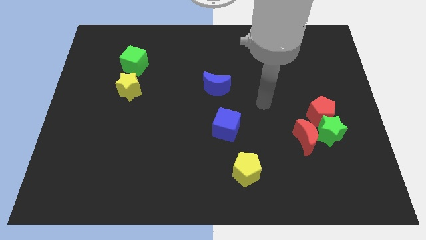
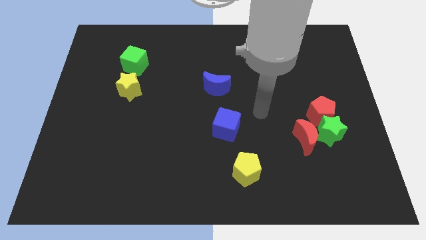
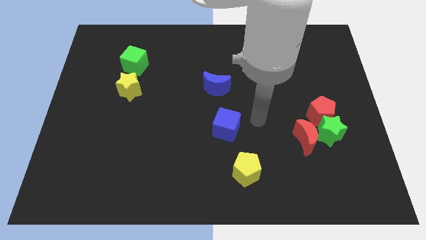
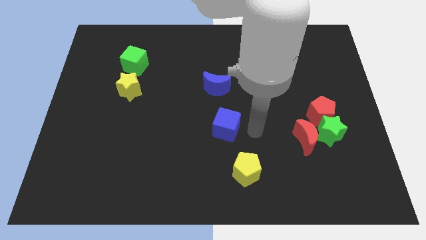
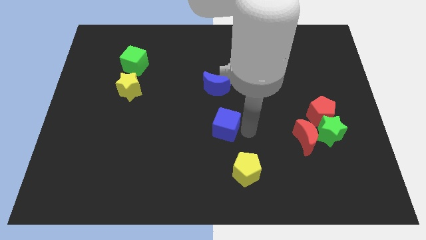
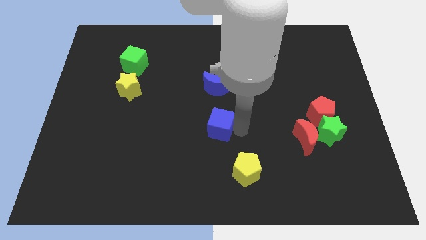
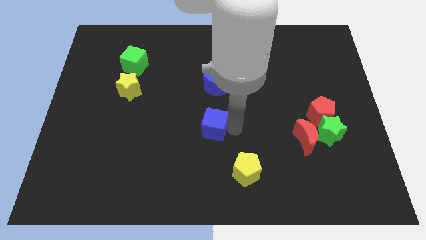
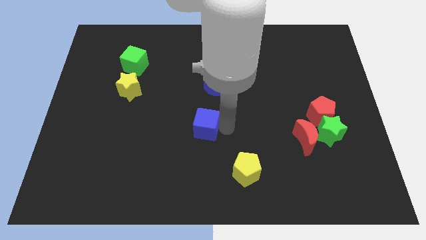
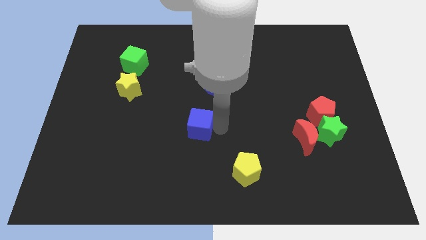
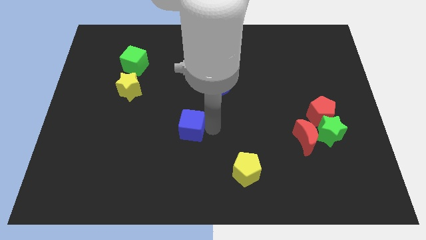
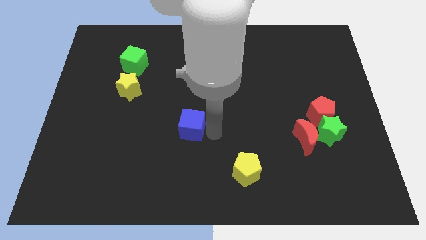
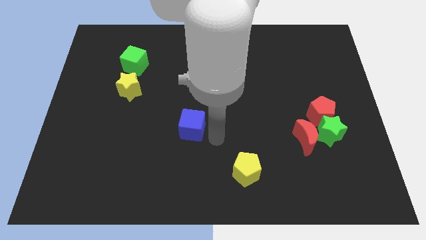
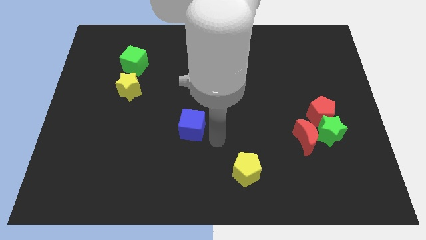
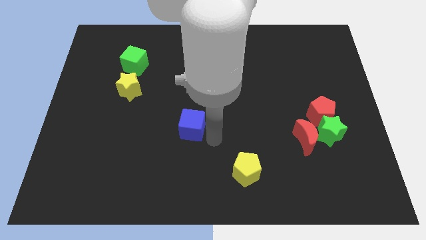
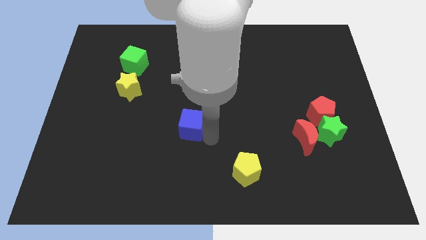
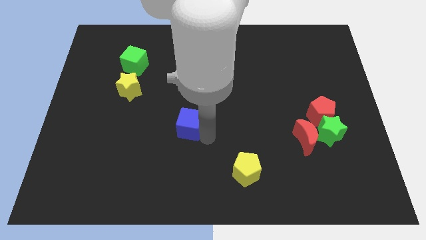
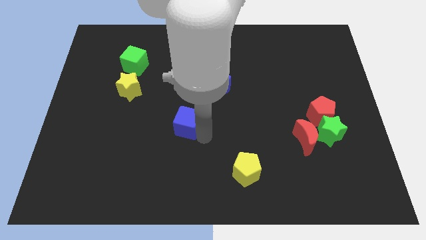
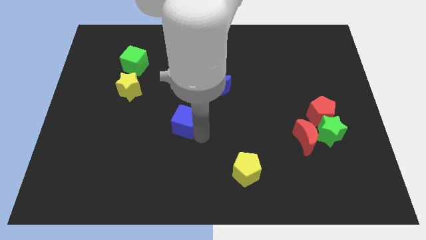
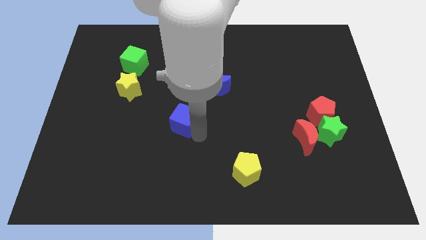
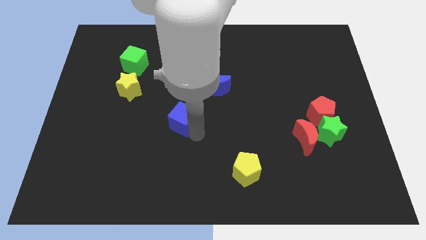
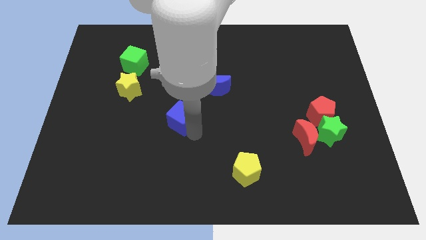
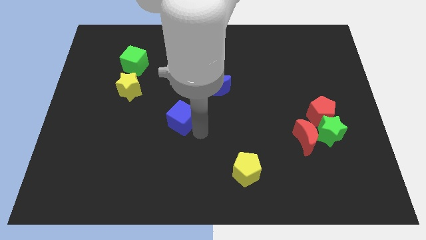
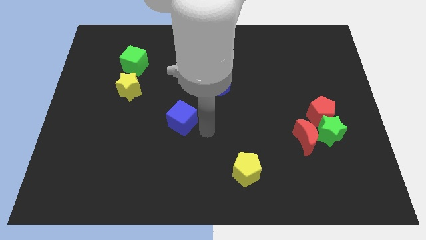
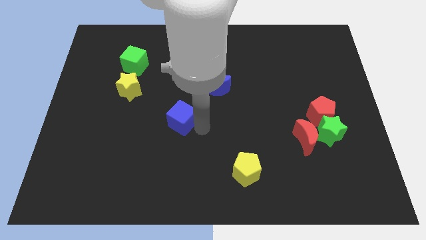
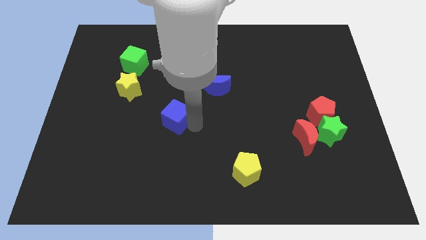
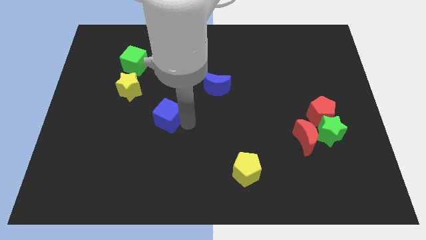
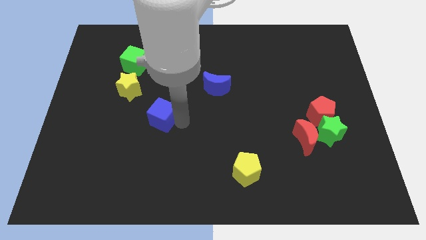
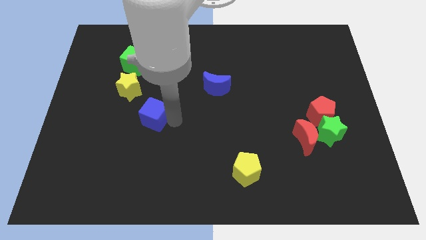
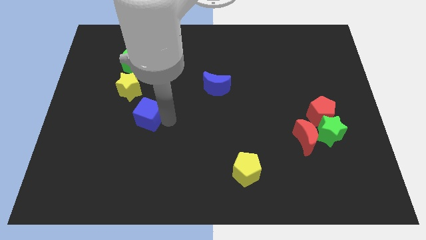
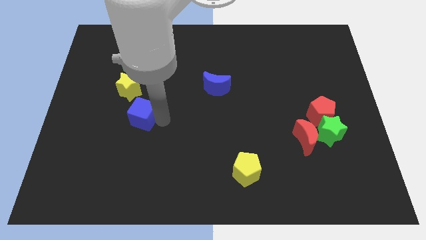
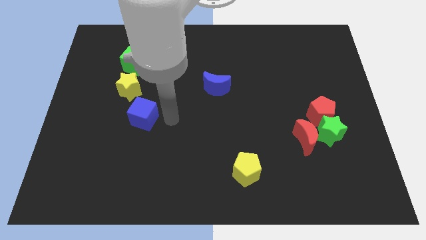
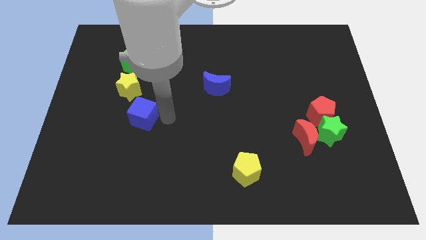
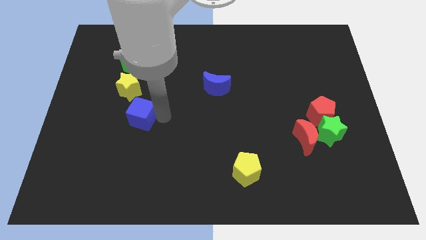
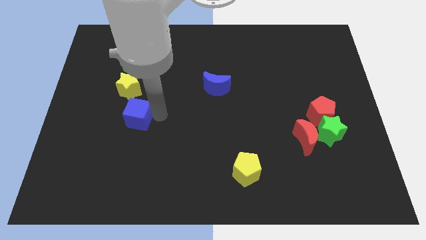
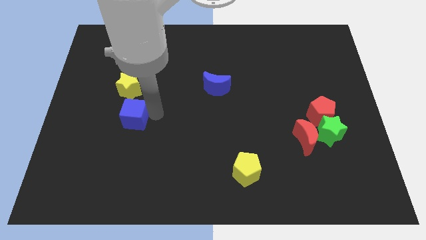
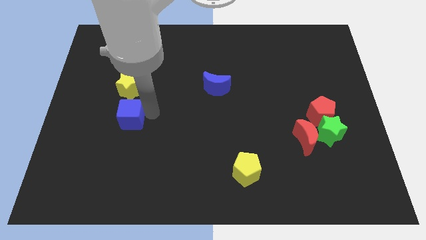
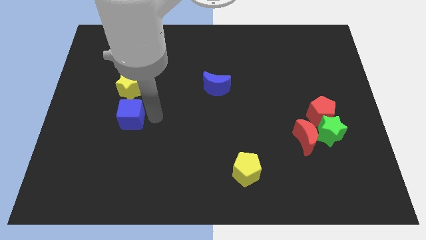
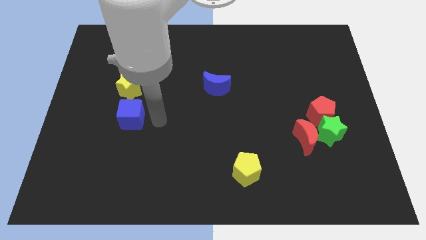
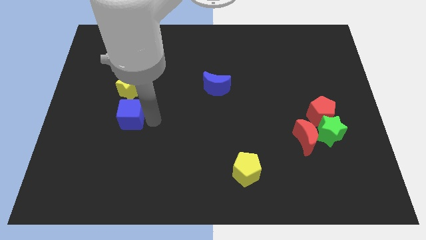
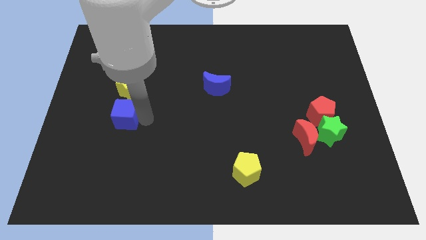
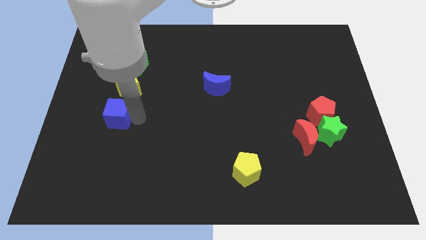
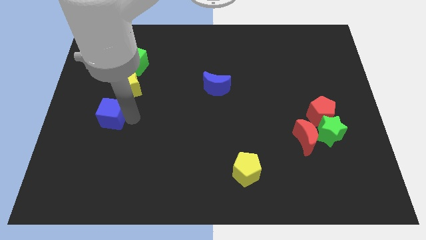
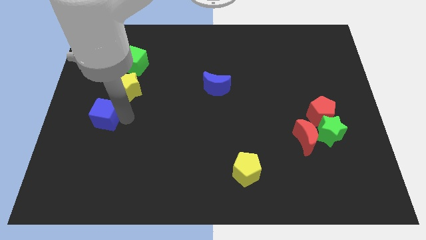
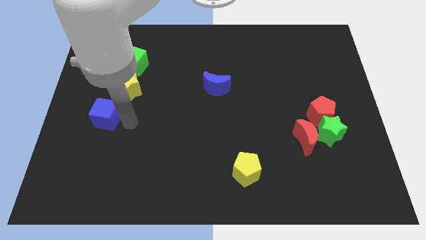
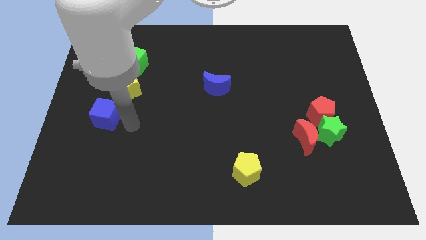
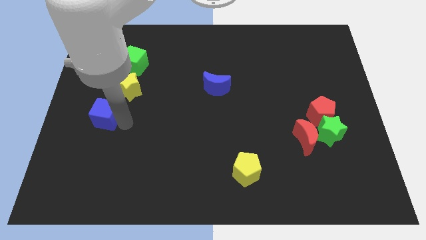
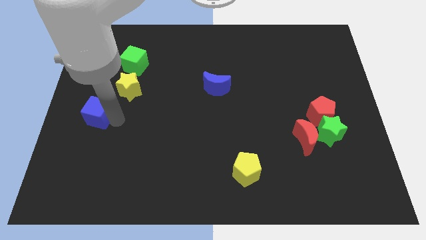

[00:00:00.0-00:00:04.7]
slide the blue cube to the left side of the board

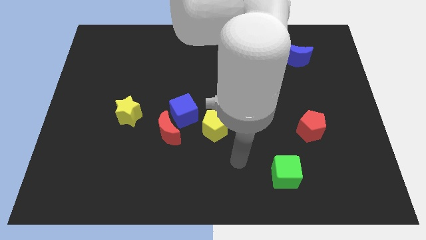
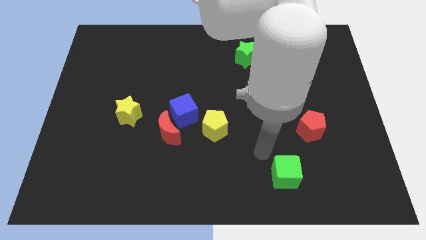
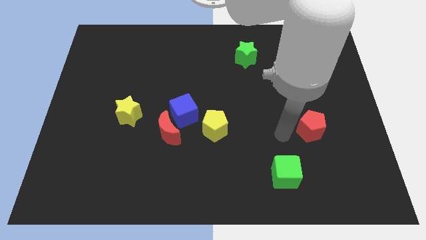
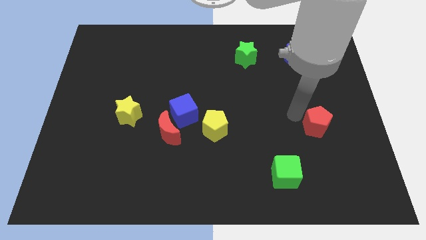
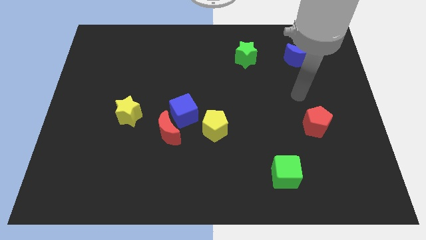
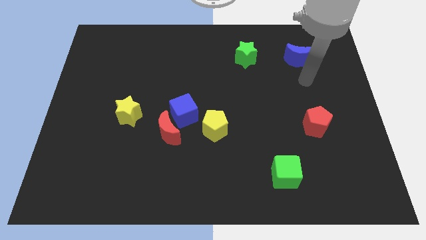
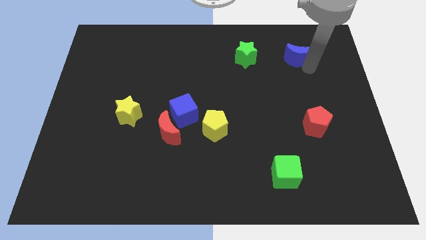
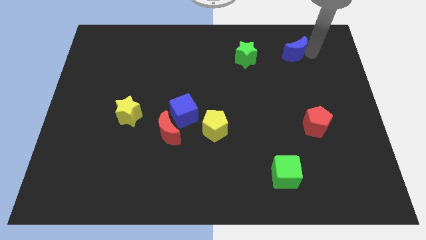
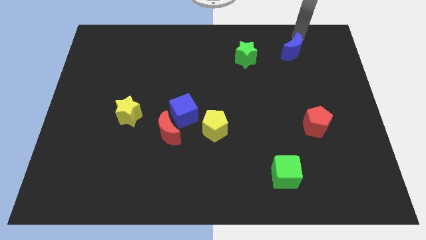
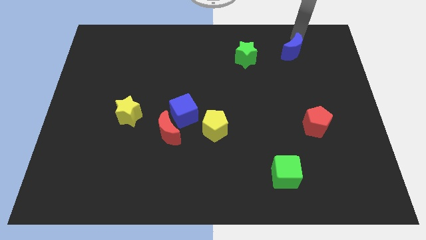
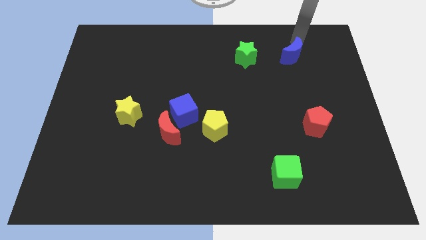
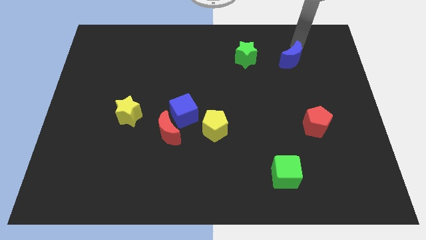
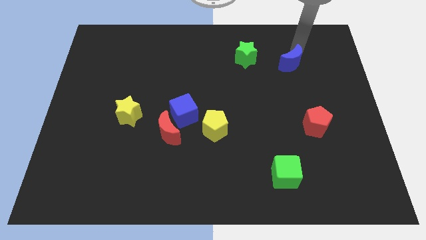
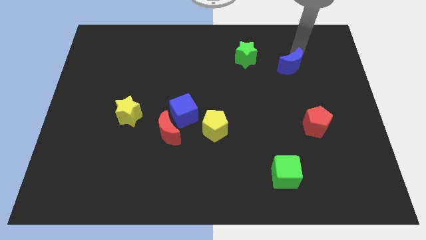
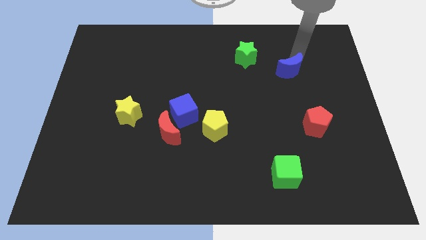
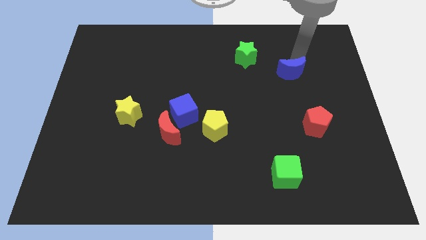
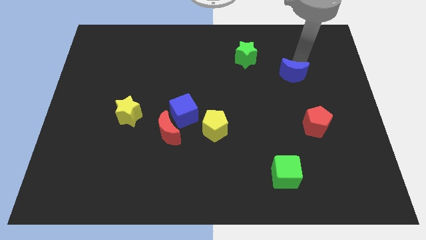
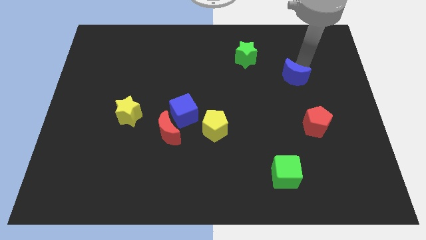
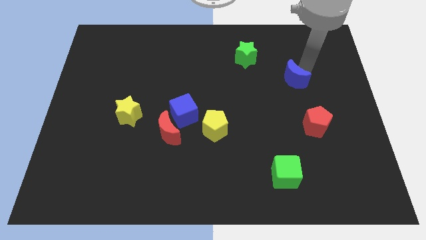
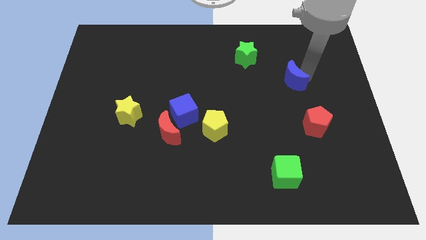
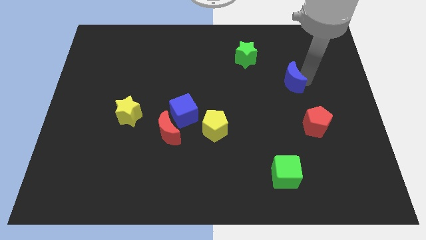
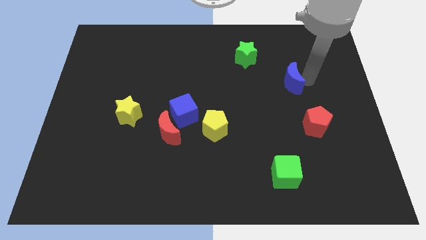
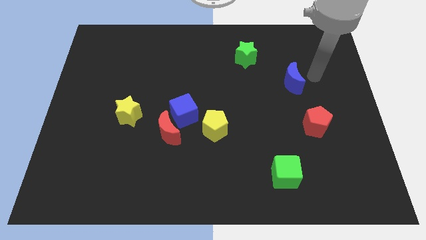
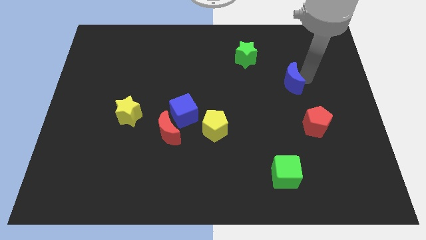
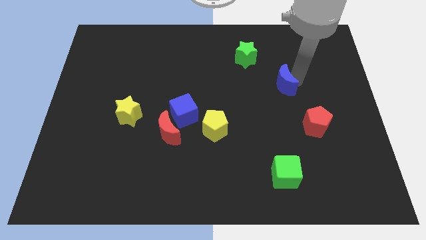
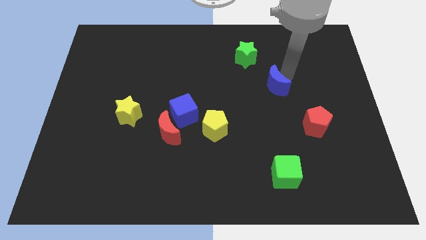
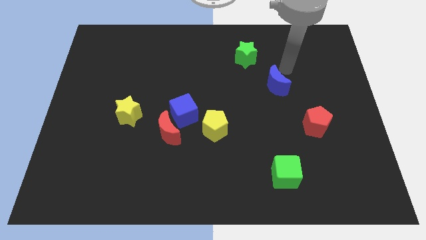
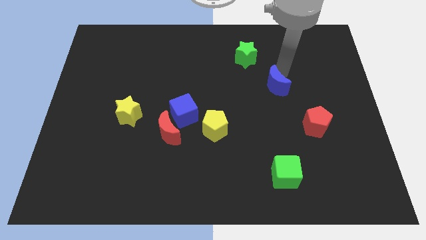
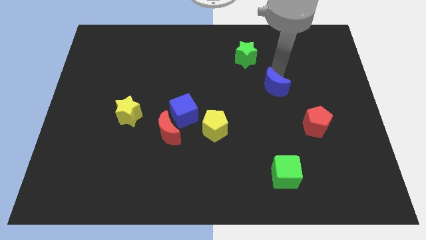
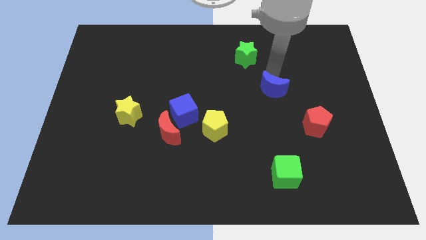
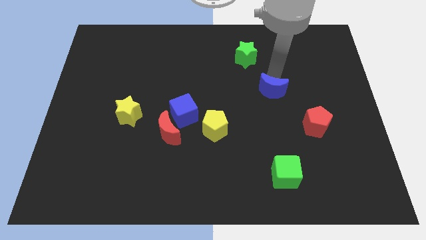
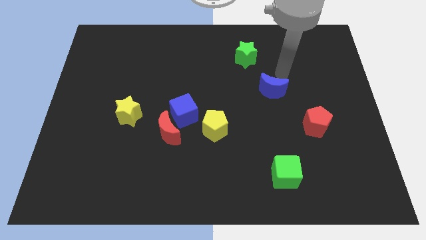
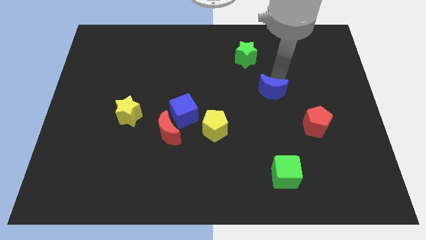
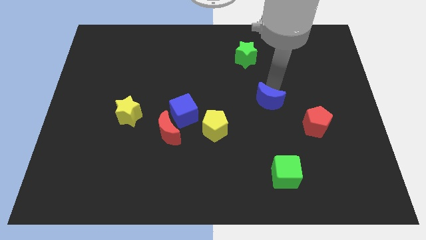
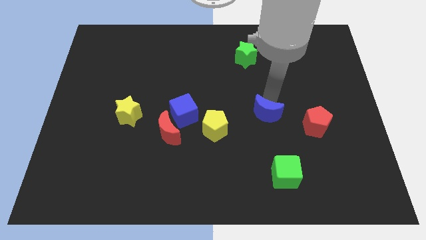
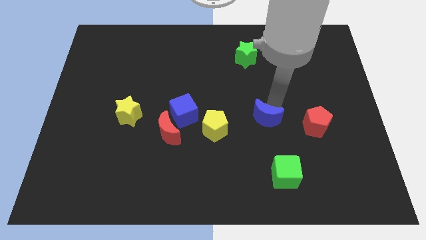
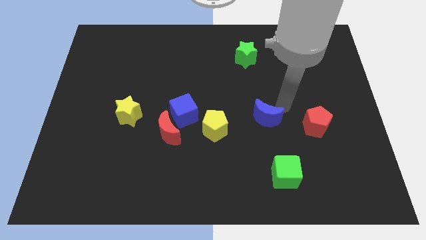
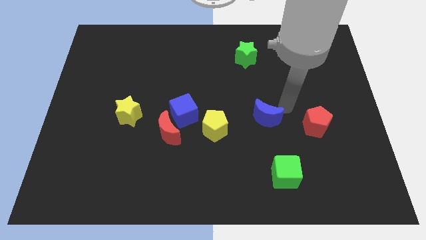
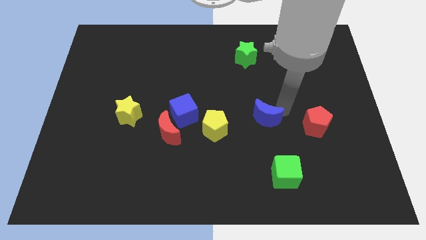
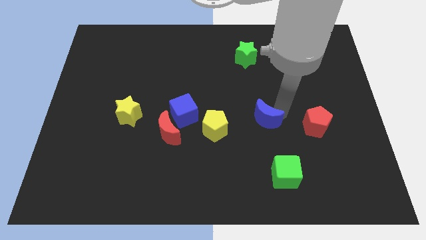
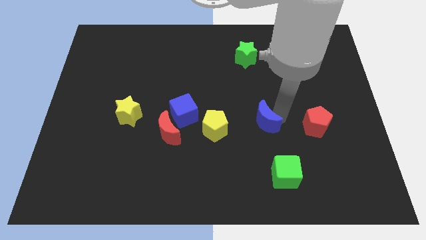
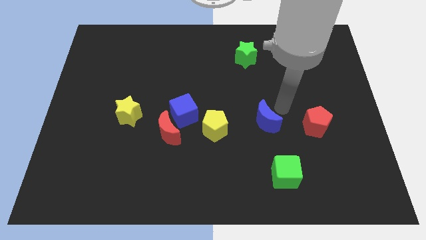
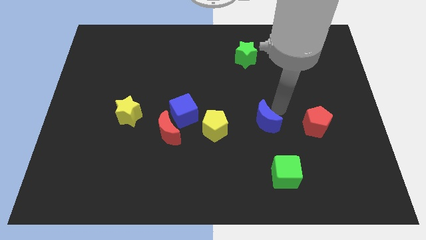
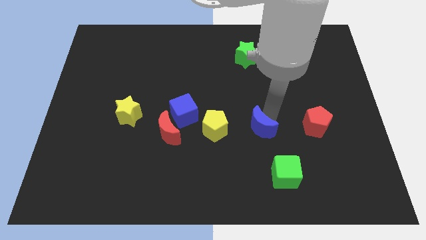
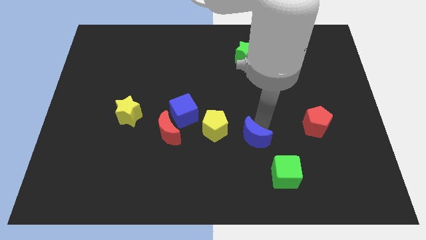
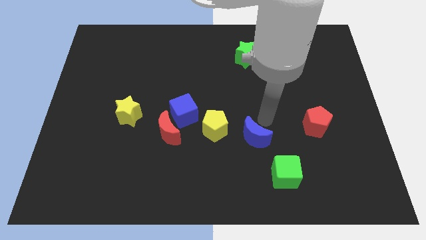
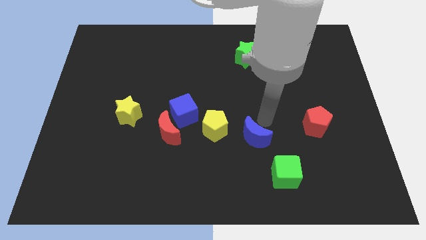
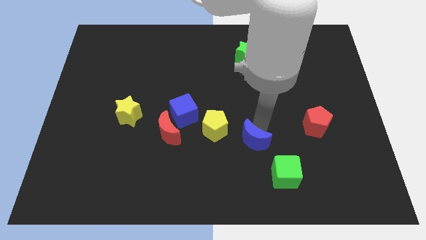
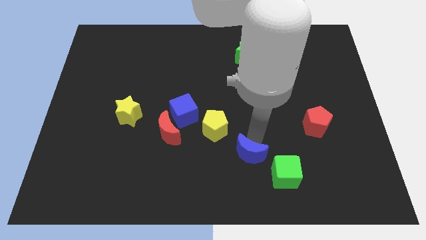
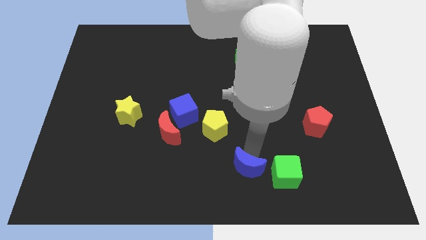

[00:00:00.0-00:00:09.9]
push the blue moon to the bottom
